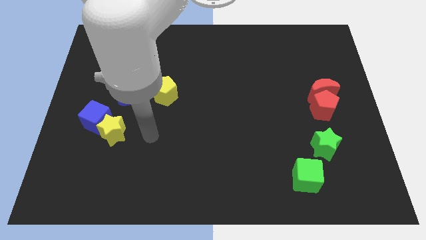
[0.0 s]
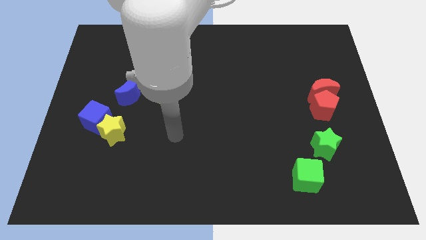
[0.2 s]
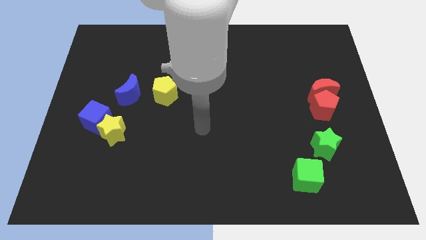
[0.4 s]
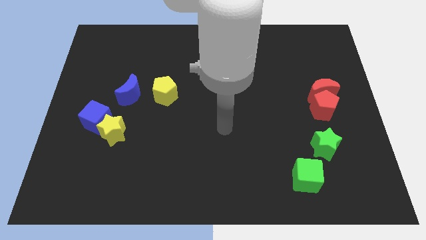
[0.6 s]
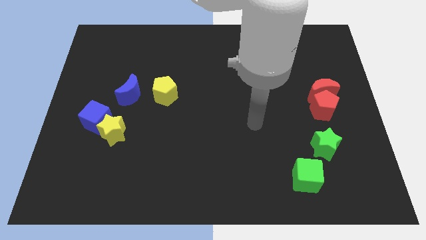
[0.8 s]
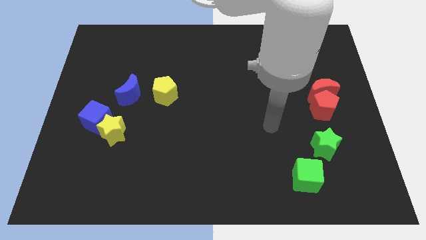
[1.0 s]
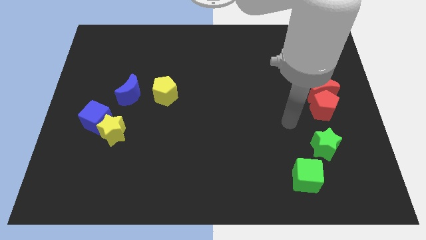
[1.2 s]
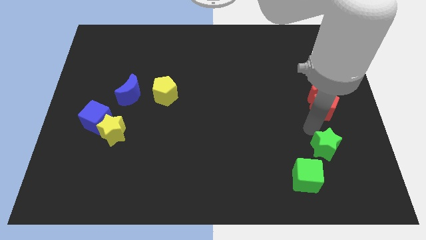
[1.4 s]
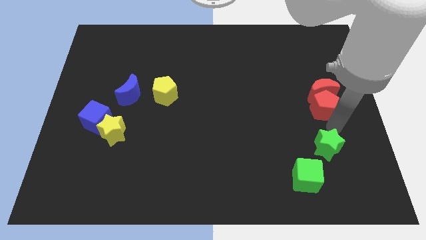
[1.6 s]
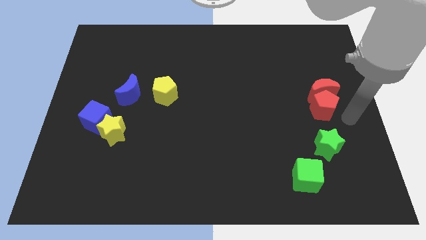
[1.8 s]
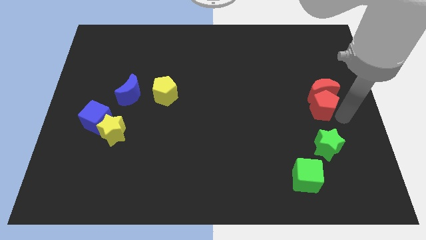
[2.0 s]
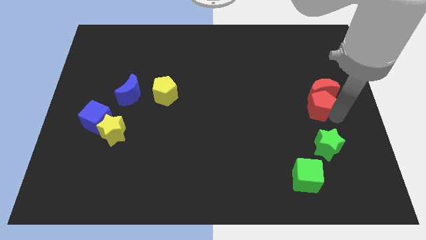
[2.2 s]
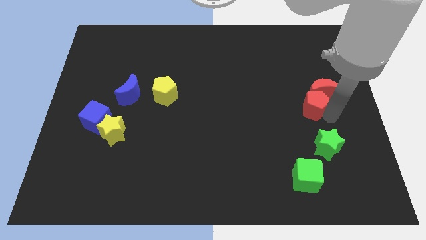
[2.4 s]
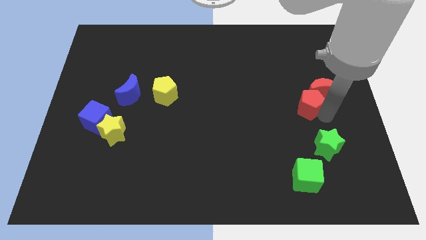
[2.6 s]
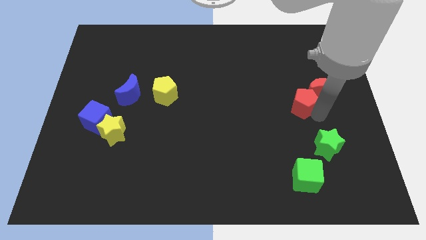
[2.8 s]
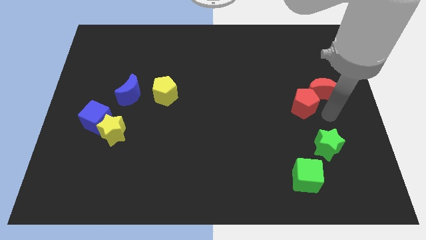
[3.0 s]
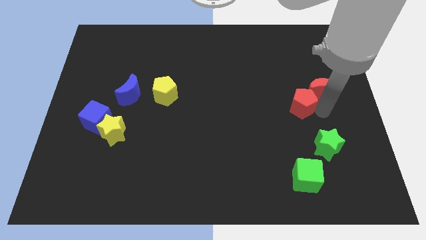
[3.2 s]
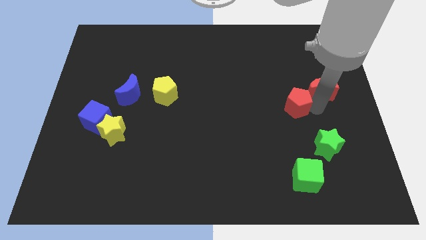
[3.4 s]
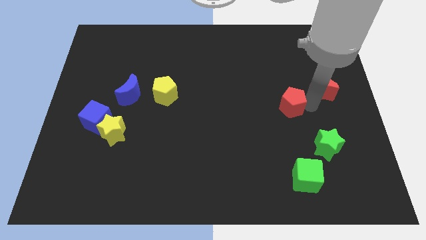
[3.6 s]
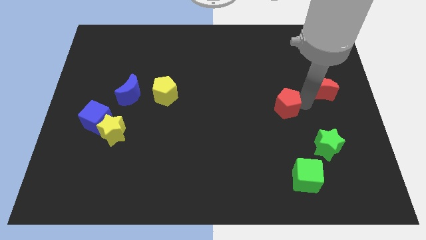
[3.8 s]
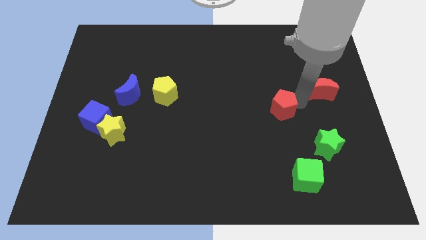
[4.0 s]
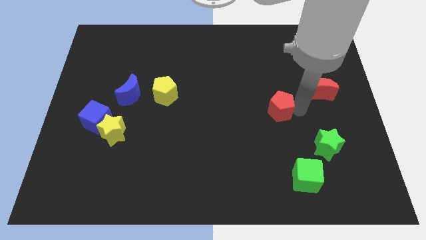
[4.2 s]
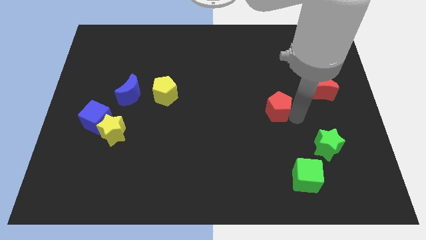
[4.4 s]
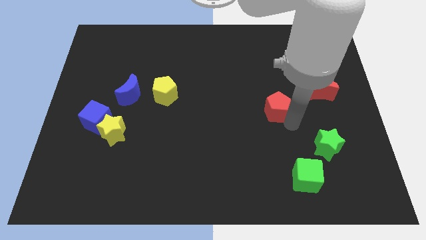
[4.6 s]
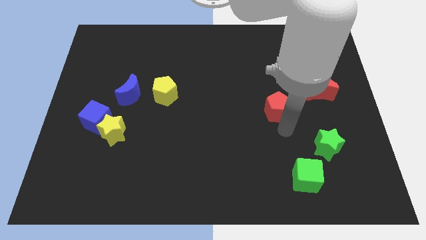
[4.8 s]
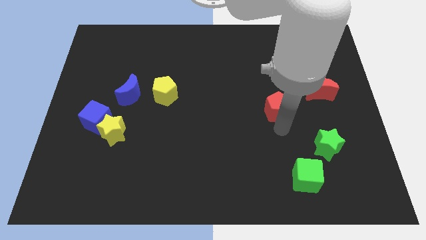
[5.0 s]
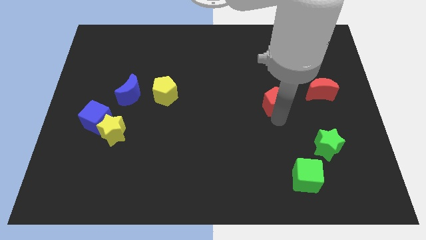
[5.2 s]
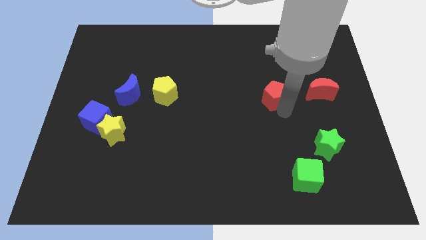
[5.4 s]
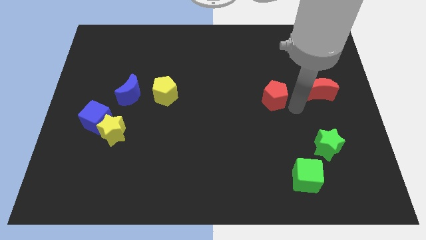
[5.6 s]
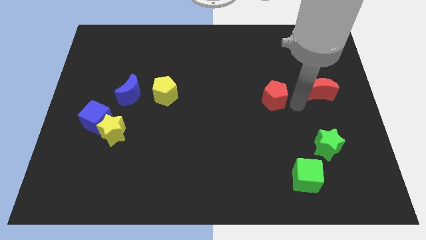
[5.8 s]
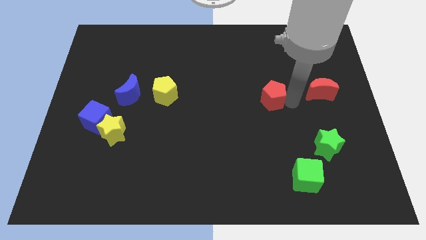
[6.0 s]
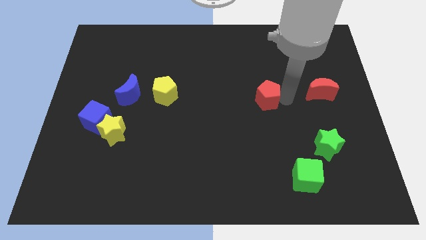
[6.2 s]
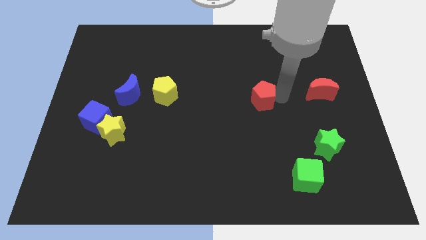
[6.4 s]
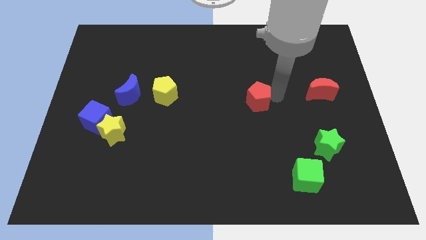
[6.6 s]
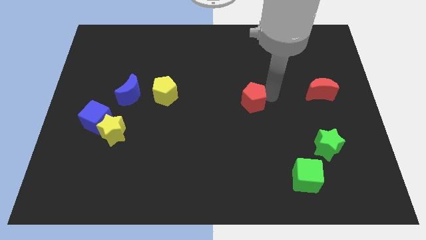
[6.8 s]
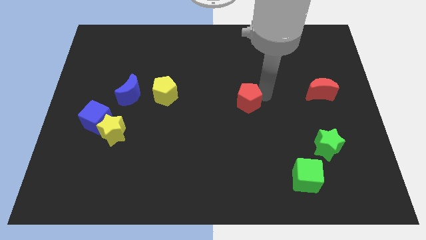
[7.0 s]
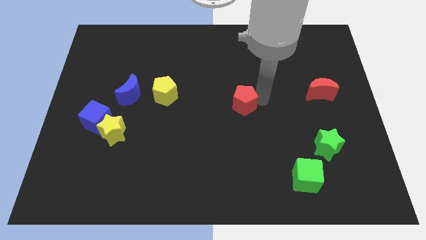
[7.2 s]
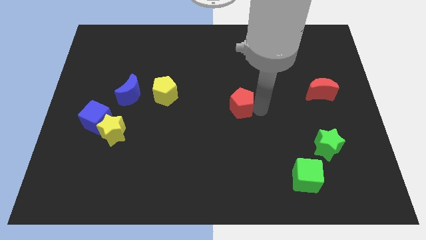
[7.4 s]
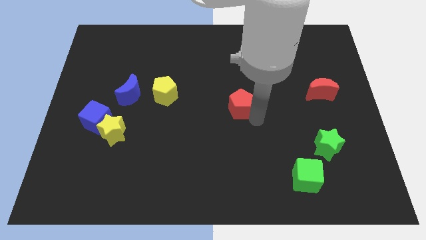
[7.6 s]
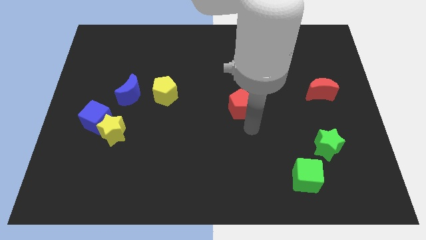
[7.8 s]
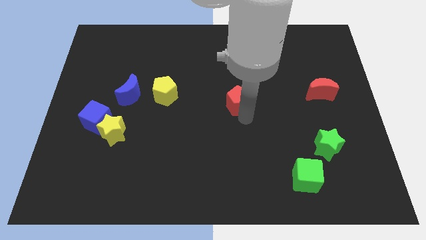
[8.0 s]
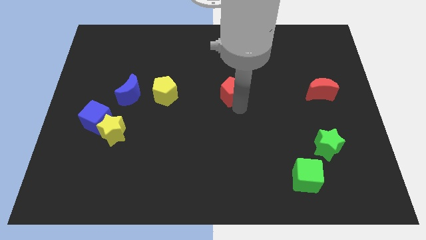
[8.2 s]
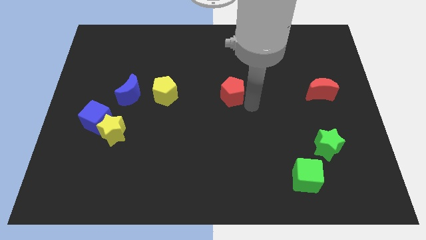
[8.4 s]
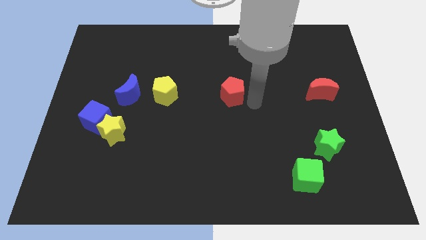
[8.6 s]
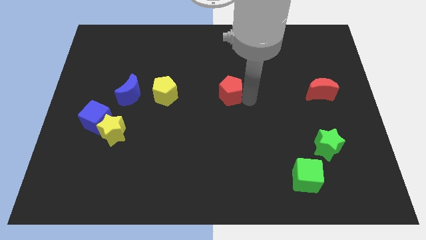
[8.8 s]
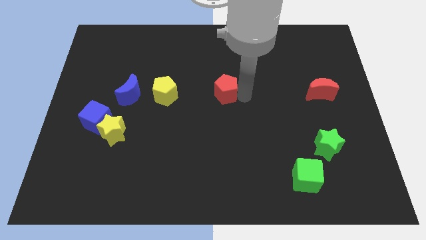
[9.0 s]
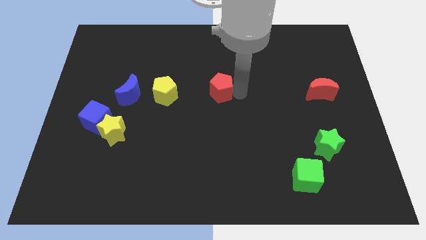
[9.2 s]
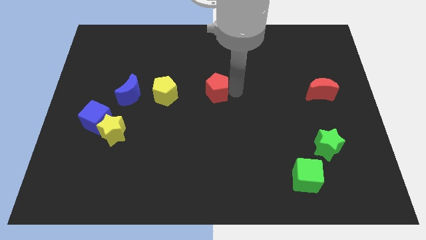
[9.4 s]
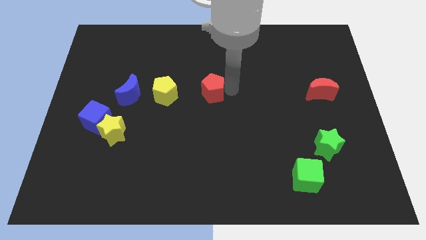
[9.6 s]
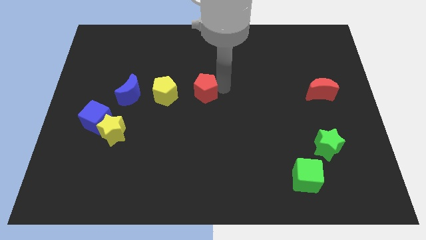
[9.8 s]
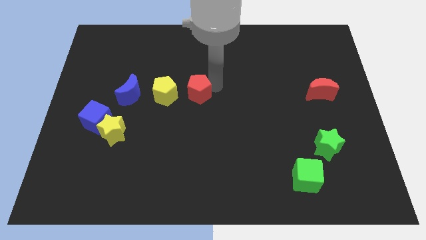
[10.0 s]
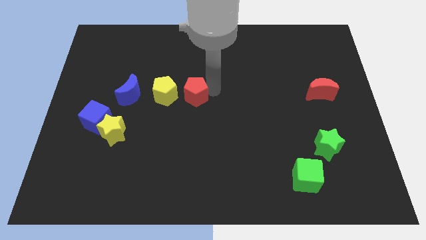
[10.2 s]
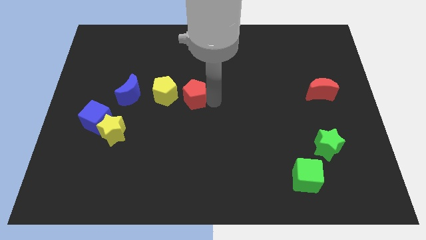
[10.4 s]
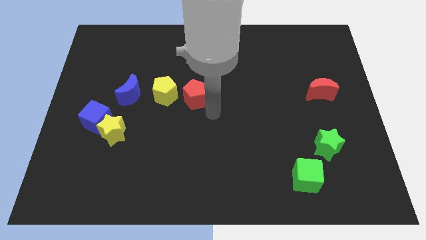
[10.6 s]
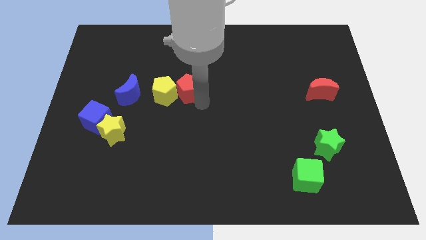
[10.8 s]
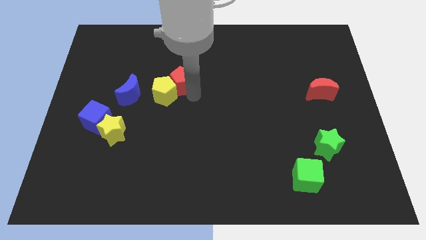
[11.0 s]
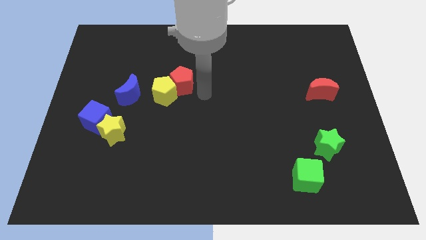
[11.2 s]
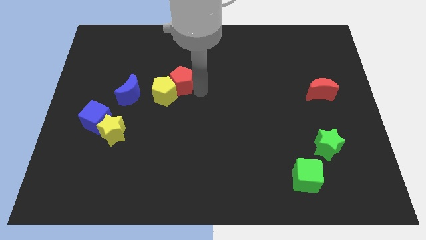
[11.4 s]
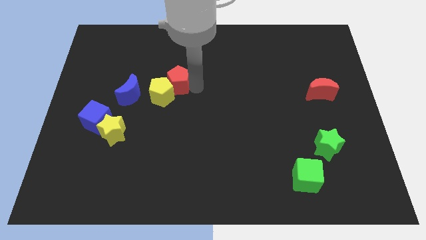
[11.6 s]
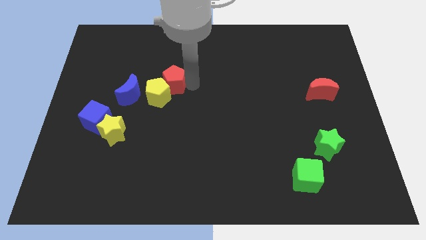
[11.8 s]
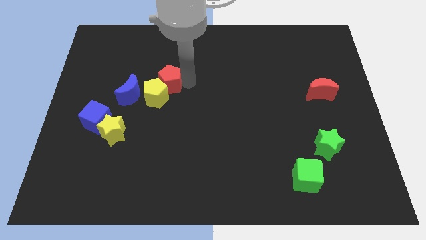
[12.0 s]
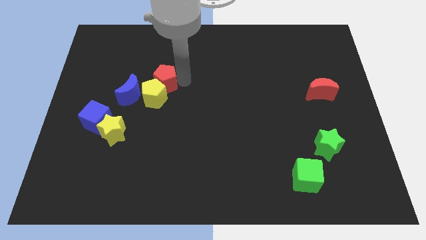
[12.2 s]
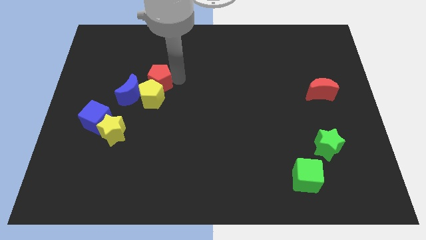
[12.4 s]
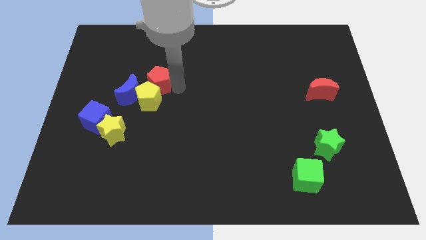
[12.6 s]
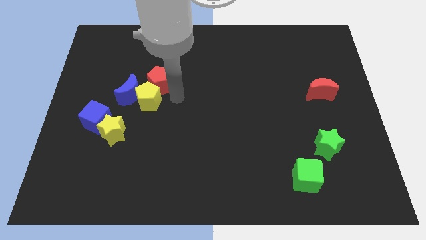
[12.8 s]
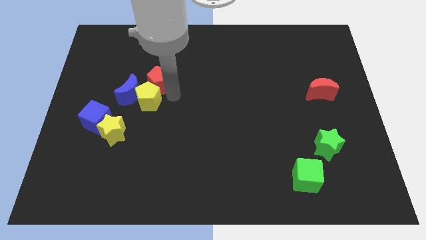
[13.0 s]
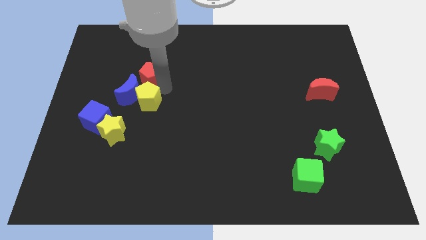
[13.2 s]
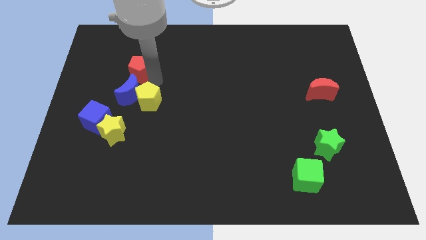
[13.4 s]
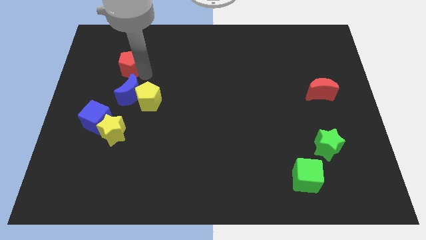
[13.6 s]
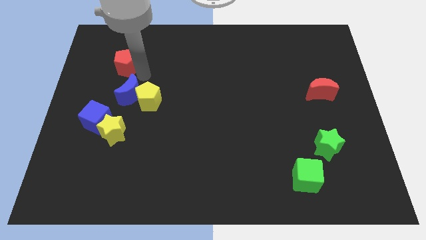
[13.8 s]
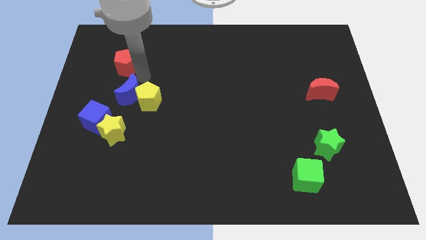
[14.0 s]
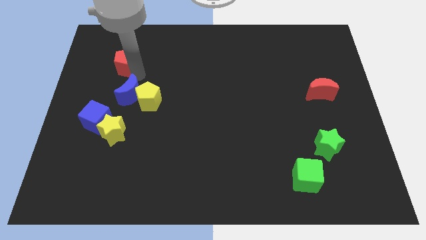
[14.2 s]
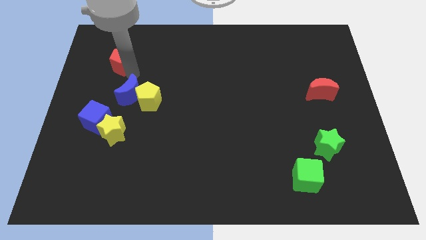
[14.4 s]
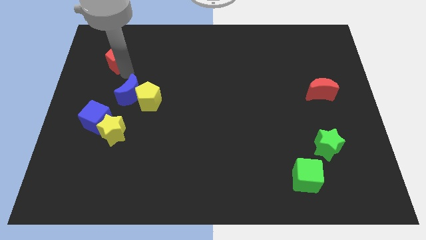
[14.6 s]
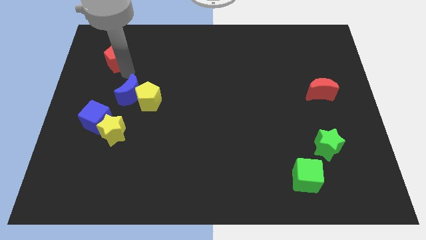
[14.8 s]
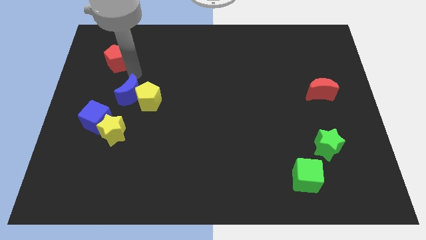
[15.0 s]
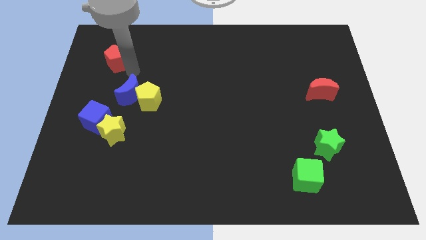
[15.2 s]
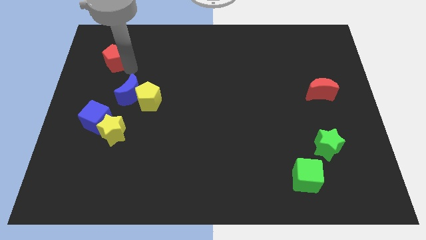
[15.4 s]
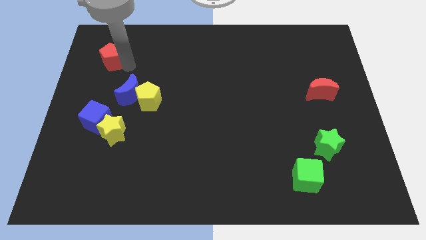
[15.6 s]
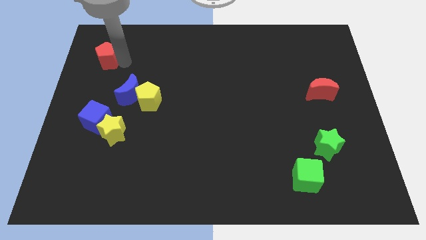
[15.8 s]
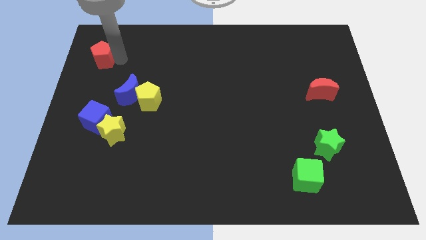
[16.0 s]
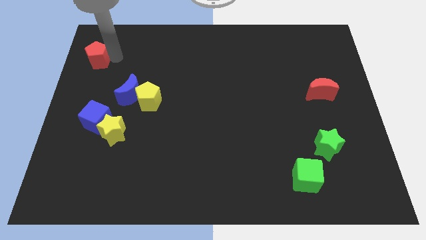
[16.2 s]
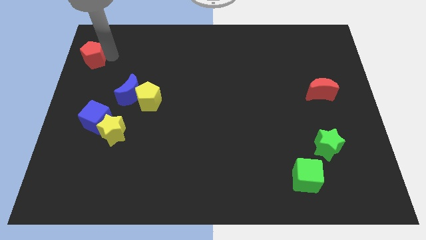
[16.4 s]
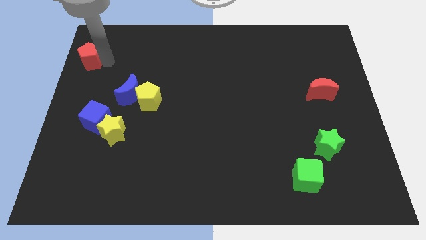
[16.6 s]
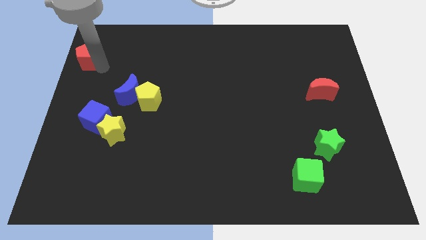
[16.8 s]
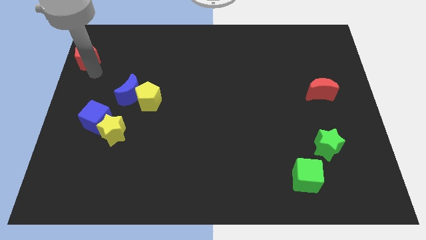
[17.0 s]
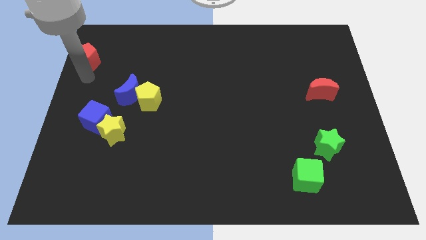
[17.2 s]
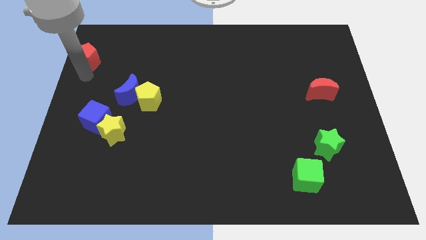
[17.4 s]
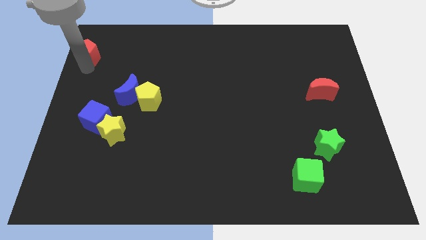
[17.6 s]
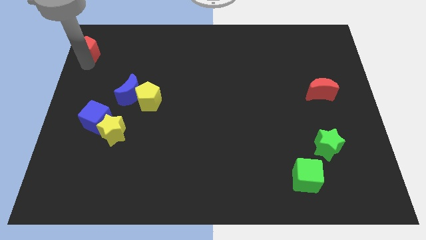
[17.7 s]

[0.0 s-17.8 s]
push the red pentagon to the top left
